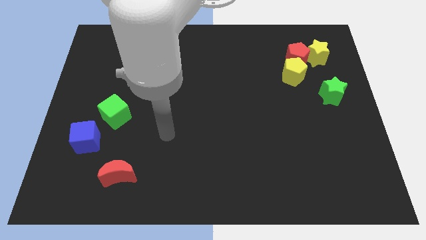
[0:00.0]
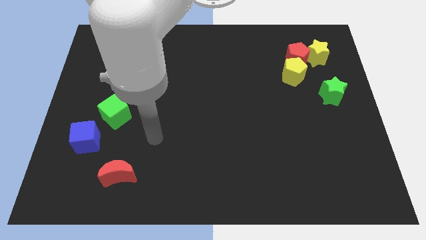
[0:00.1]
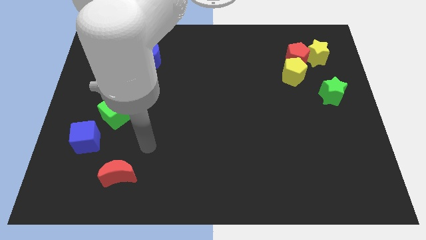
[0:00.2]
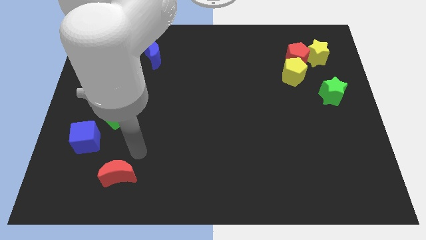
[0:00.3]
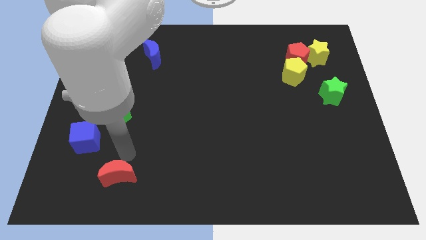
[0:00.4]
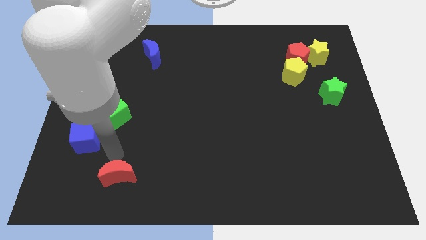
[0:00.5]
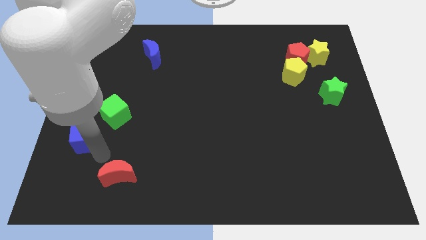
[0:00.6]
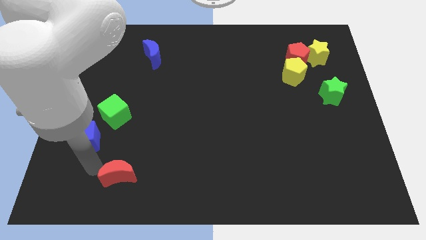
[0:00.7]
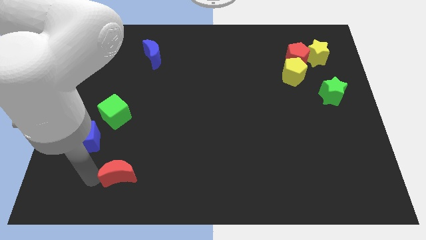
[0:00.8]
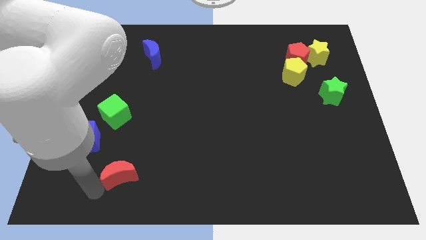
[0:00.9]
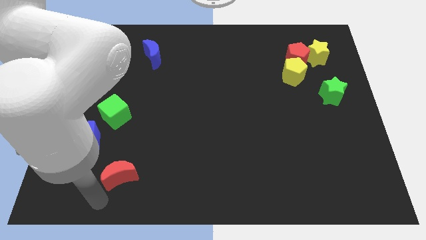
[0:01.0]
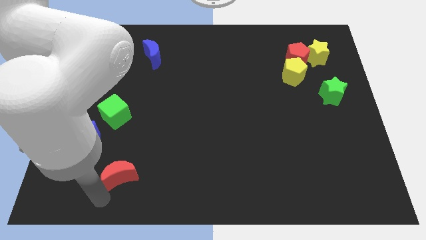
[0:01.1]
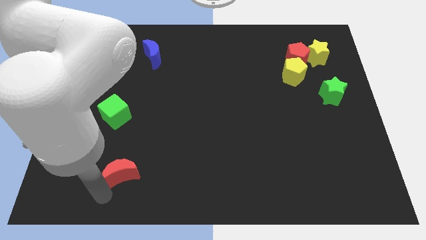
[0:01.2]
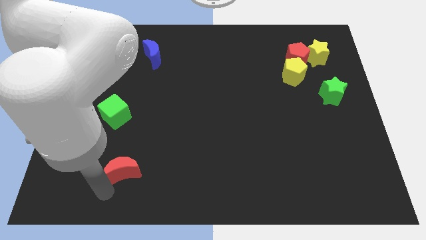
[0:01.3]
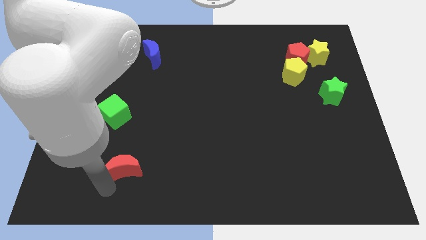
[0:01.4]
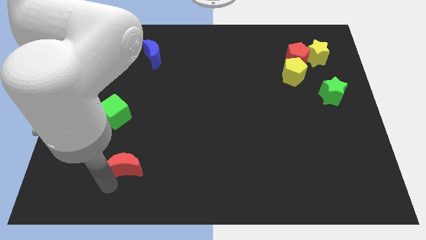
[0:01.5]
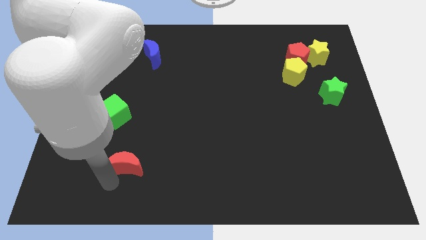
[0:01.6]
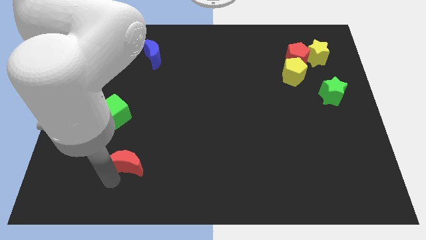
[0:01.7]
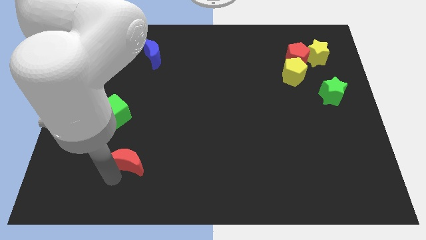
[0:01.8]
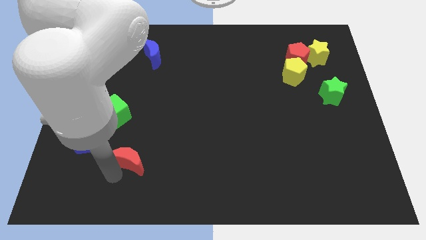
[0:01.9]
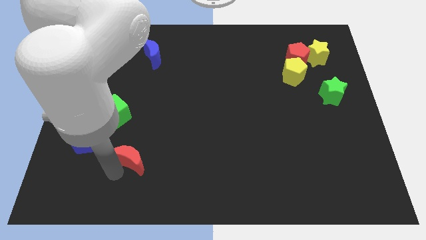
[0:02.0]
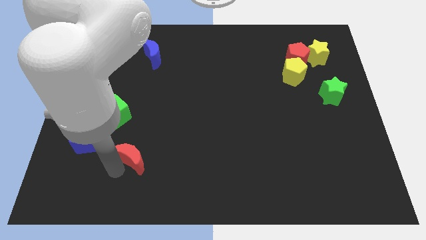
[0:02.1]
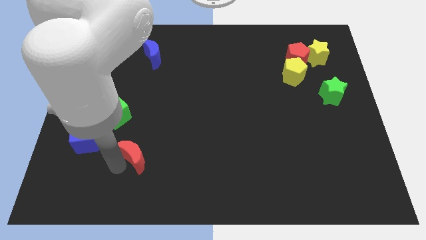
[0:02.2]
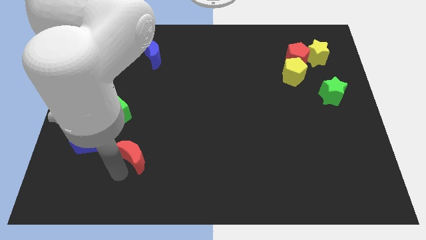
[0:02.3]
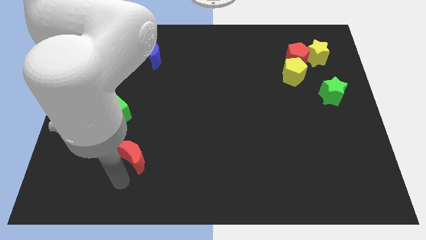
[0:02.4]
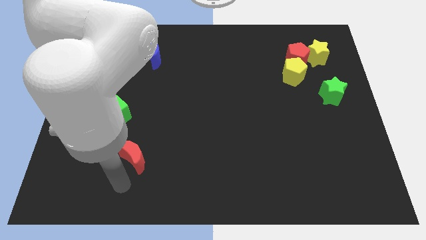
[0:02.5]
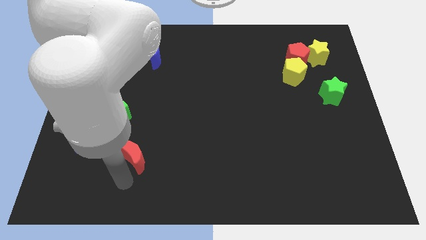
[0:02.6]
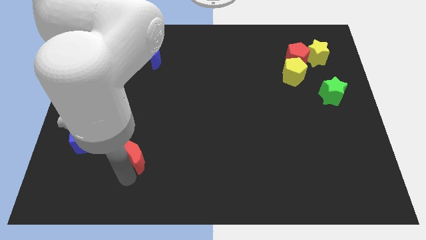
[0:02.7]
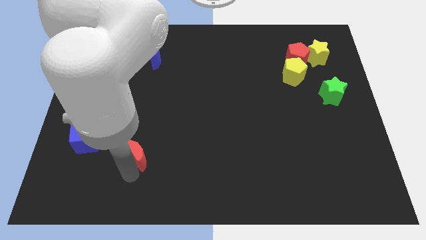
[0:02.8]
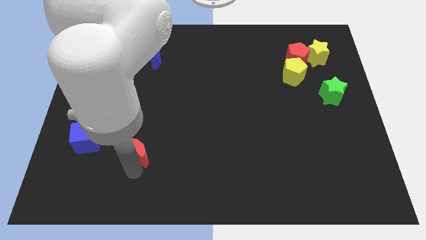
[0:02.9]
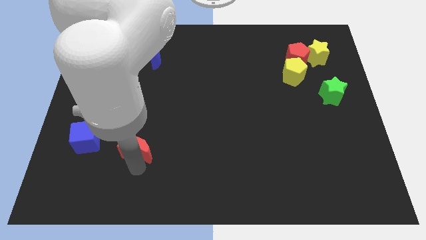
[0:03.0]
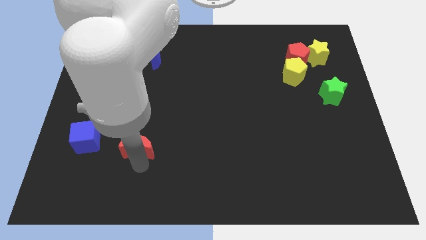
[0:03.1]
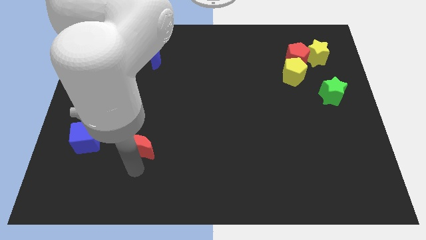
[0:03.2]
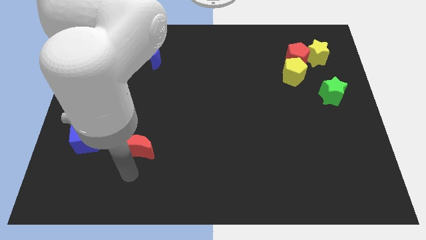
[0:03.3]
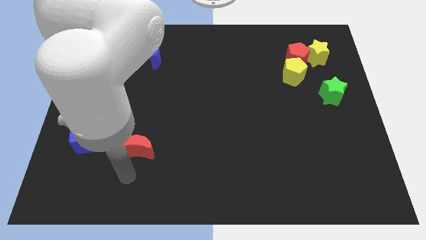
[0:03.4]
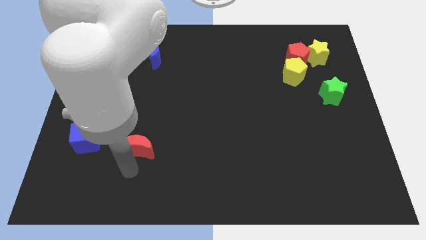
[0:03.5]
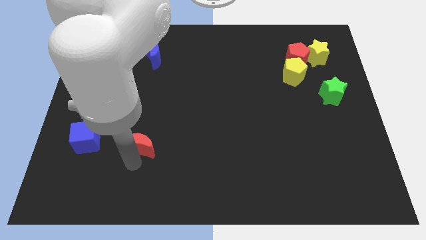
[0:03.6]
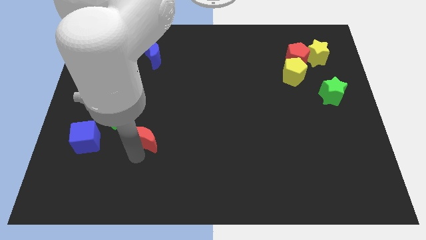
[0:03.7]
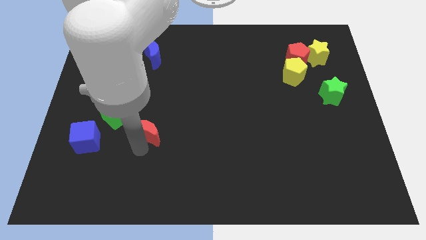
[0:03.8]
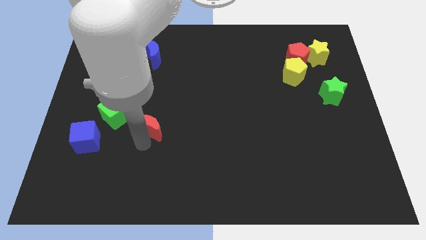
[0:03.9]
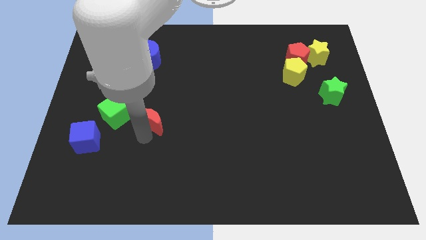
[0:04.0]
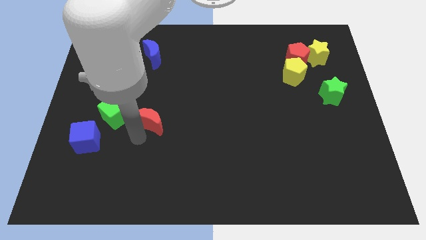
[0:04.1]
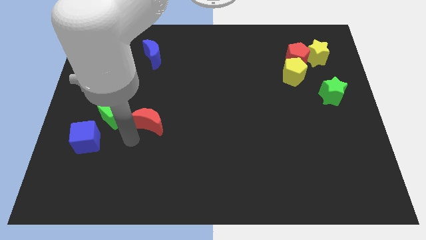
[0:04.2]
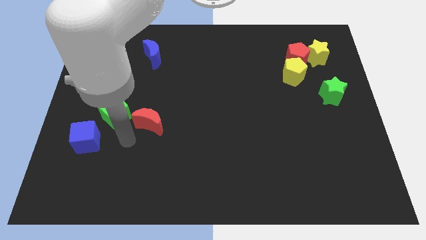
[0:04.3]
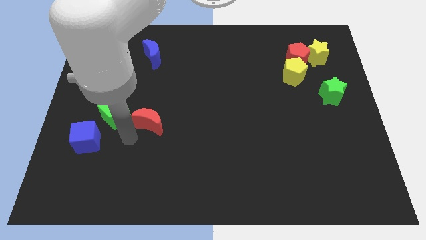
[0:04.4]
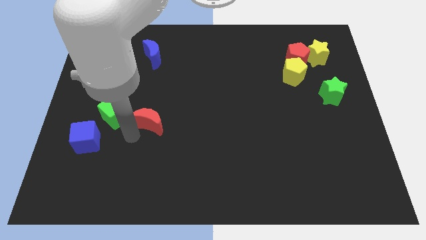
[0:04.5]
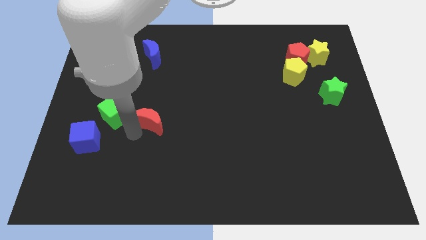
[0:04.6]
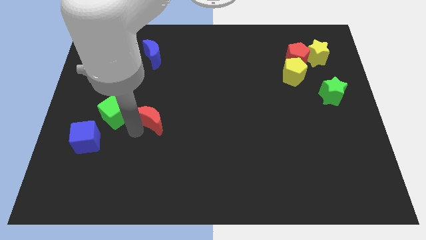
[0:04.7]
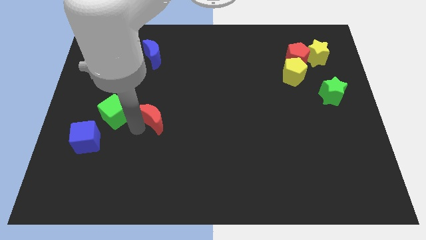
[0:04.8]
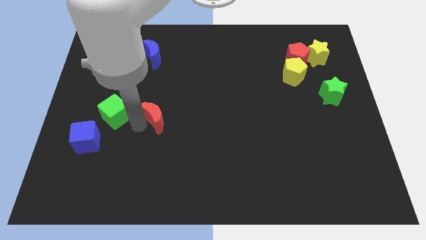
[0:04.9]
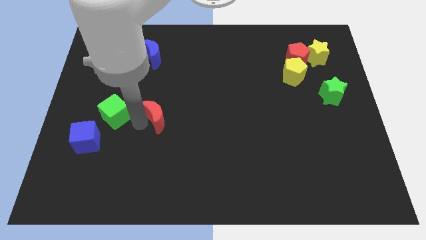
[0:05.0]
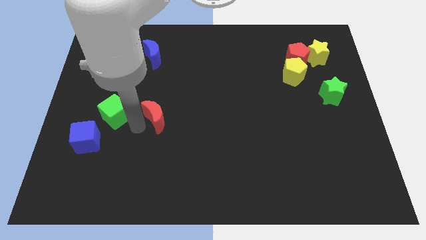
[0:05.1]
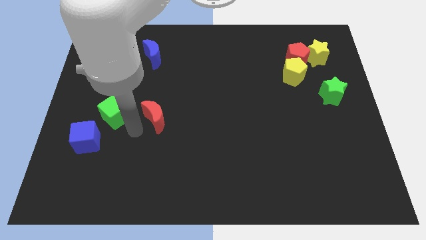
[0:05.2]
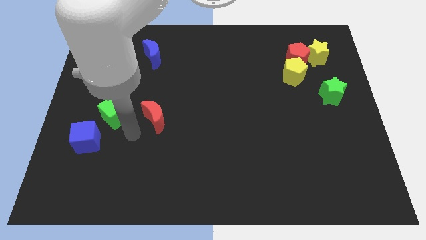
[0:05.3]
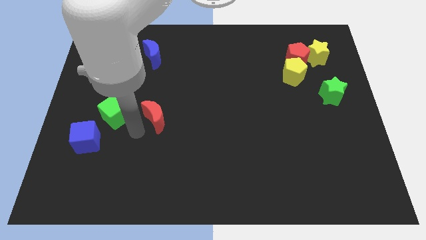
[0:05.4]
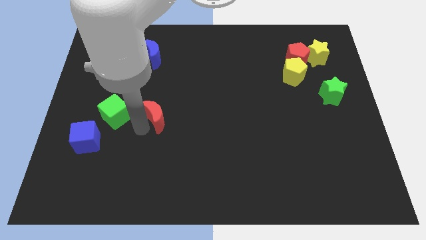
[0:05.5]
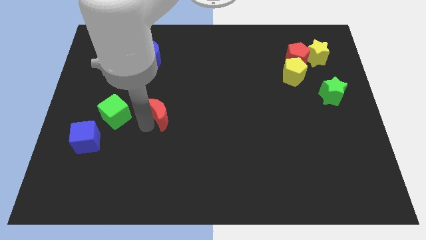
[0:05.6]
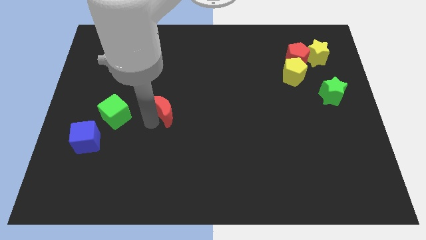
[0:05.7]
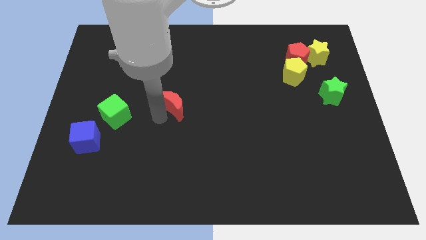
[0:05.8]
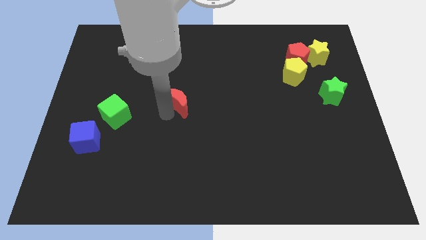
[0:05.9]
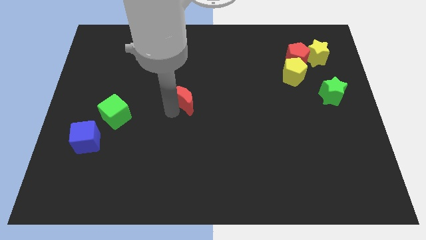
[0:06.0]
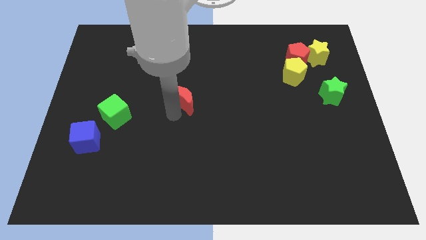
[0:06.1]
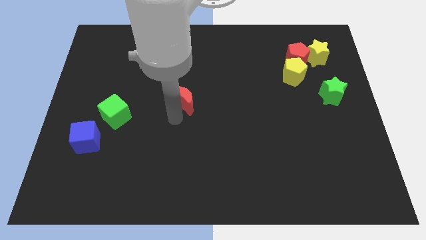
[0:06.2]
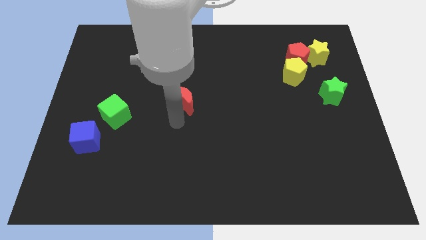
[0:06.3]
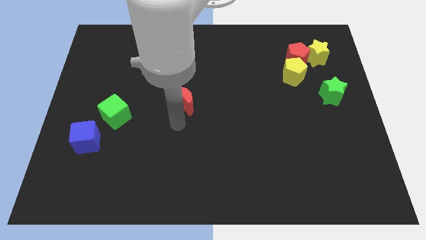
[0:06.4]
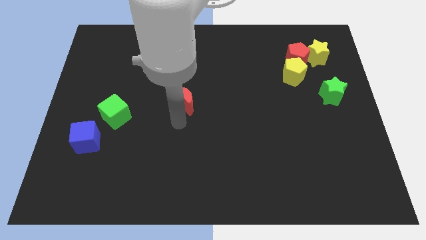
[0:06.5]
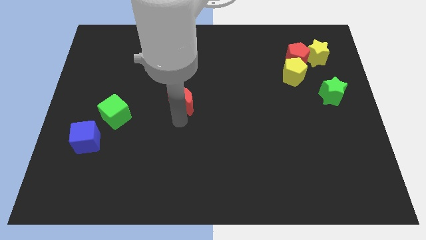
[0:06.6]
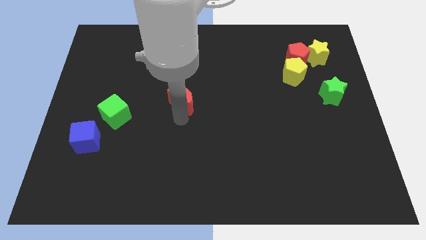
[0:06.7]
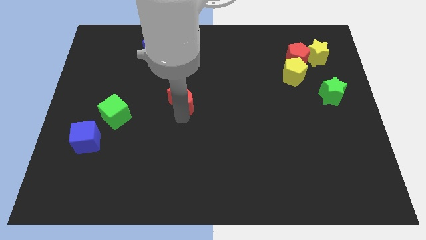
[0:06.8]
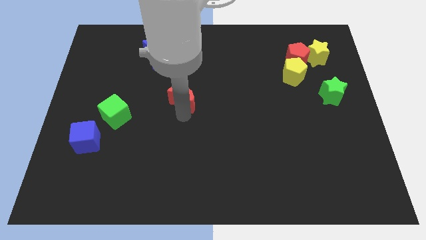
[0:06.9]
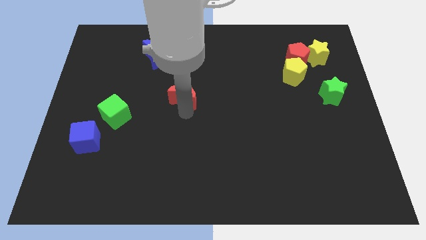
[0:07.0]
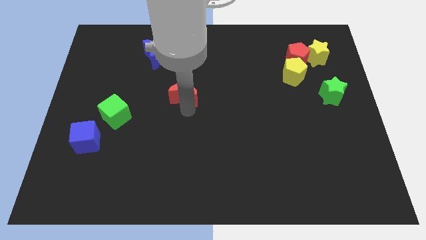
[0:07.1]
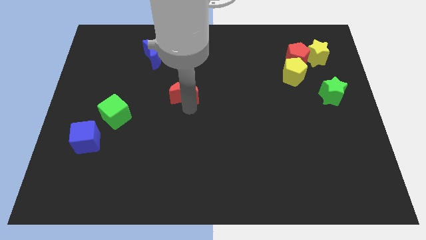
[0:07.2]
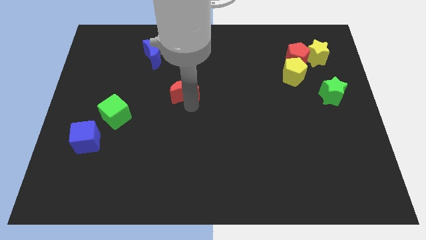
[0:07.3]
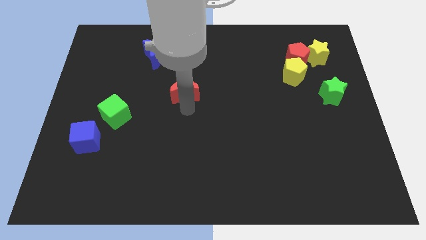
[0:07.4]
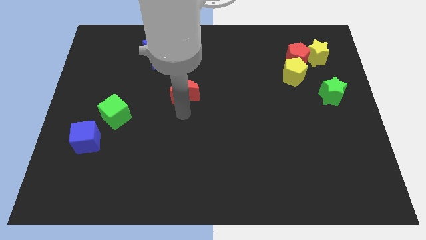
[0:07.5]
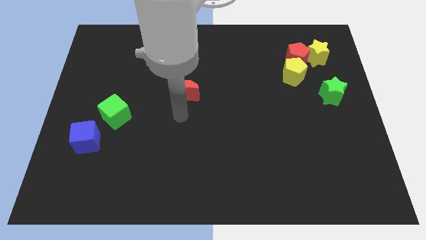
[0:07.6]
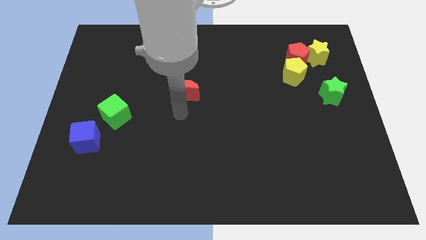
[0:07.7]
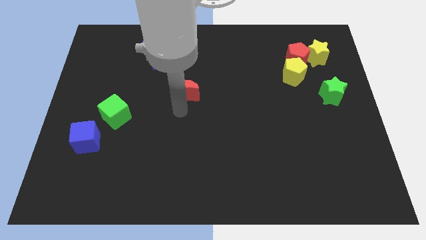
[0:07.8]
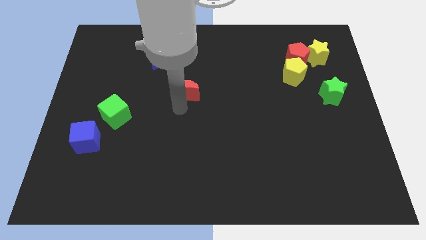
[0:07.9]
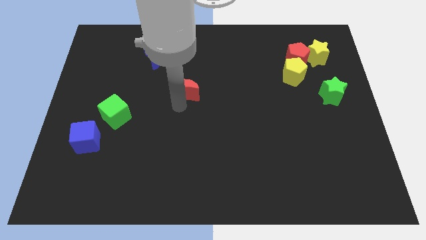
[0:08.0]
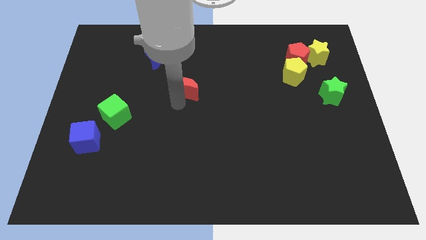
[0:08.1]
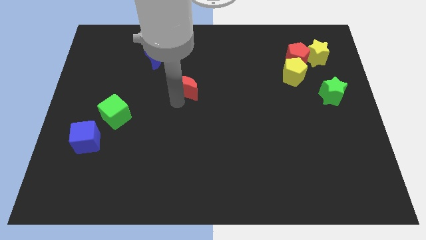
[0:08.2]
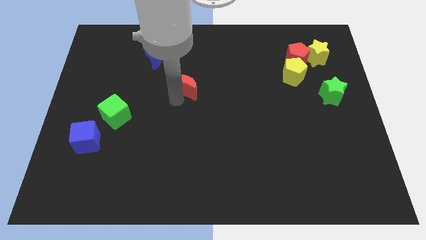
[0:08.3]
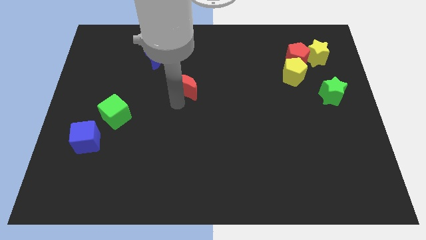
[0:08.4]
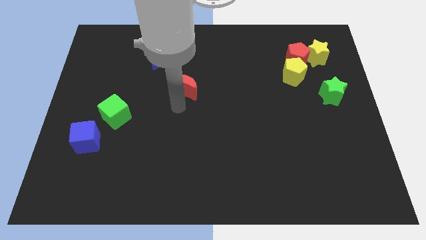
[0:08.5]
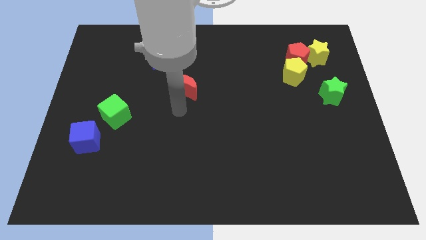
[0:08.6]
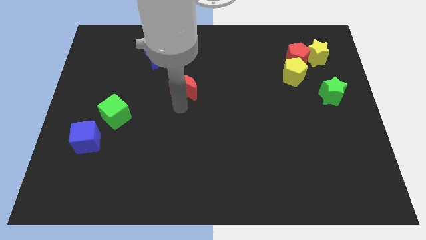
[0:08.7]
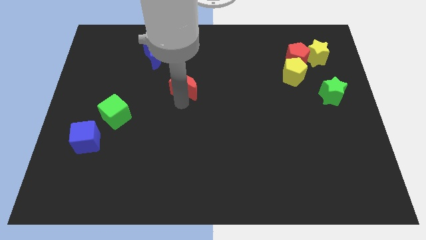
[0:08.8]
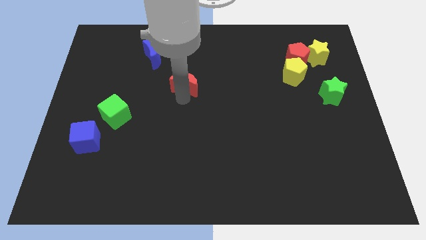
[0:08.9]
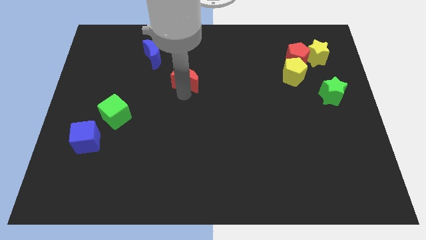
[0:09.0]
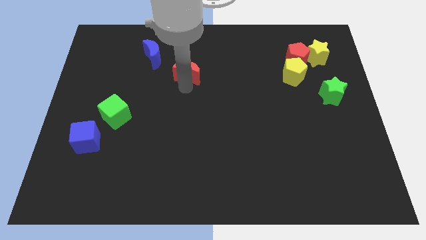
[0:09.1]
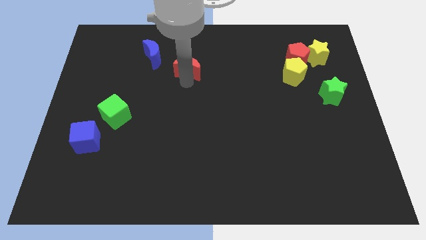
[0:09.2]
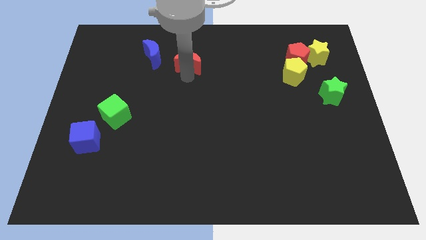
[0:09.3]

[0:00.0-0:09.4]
put the red moon to the right of the blue moon
